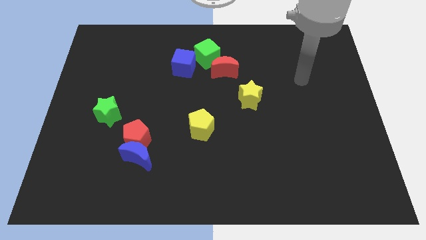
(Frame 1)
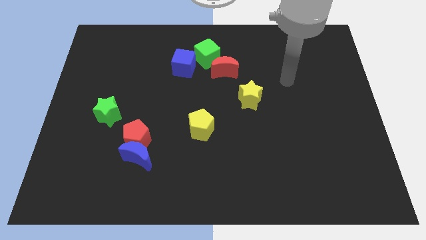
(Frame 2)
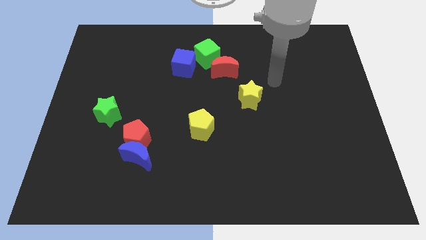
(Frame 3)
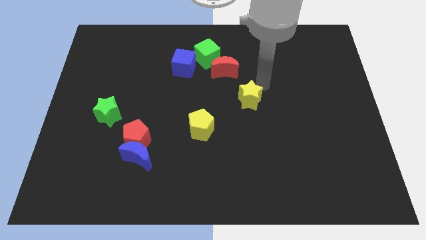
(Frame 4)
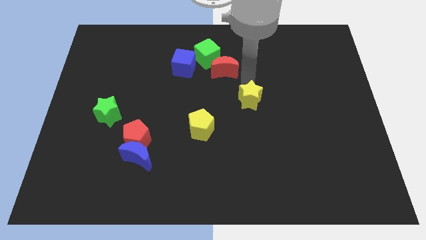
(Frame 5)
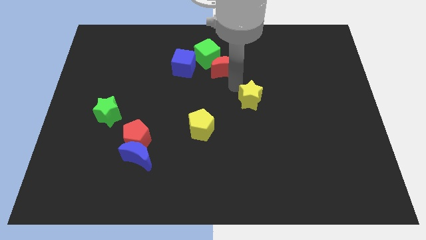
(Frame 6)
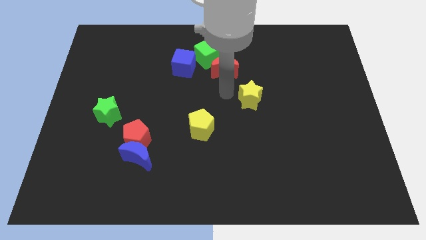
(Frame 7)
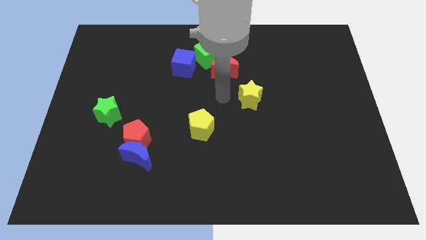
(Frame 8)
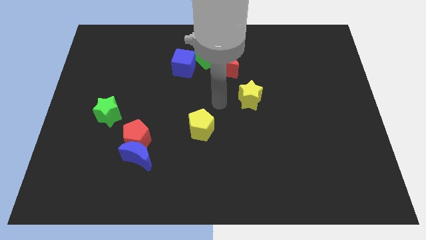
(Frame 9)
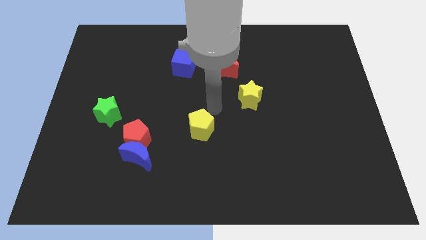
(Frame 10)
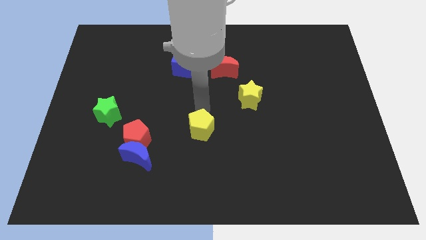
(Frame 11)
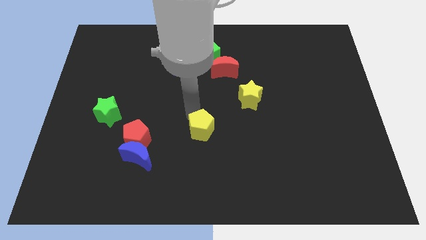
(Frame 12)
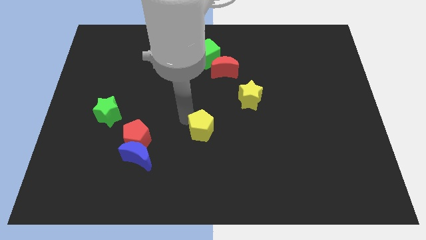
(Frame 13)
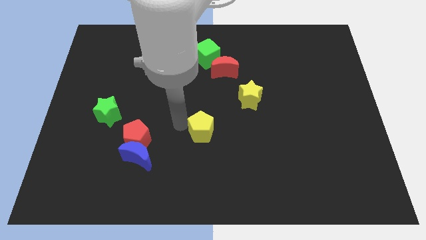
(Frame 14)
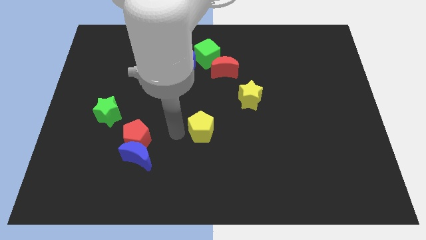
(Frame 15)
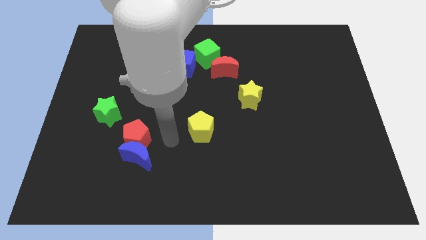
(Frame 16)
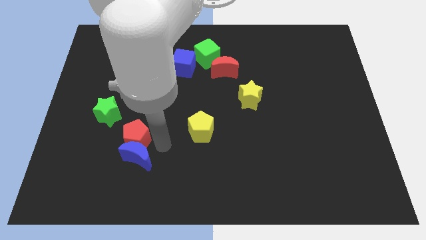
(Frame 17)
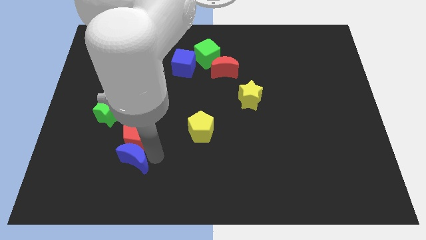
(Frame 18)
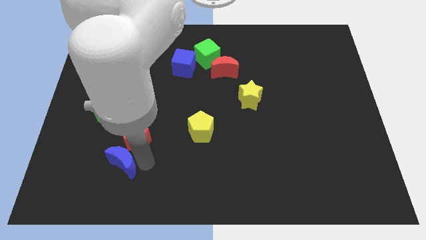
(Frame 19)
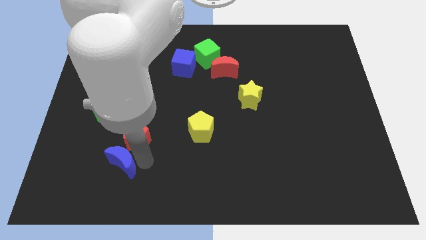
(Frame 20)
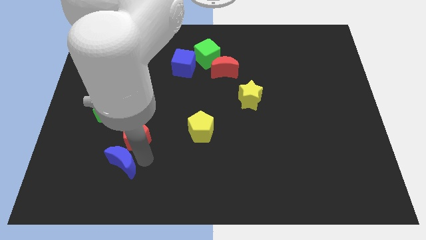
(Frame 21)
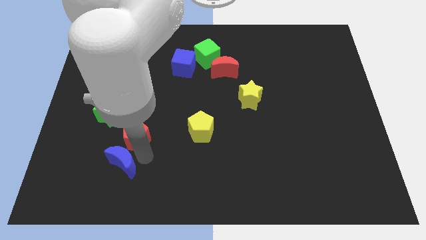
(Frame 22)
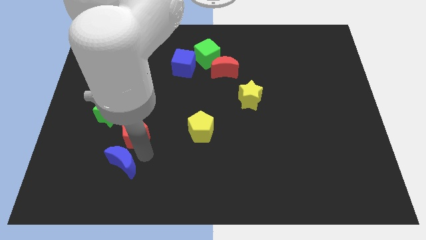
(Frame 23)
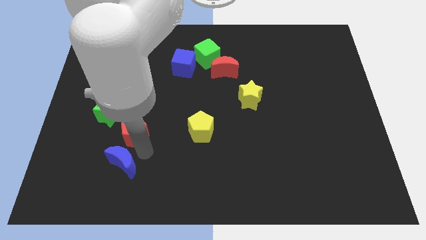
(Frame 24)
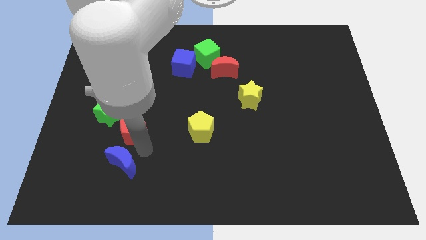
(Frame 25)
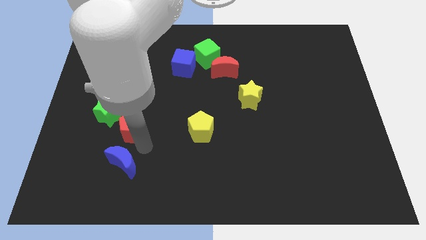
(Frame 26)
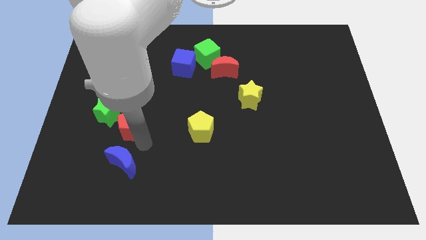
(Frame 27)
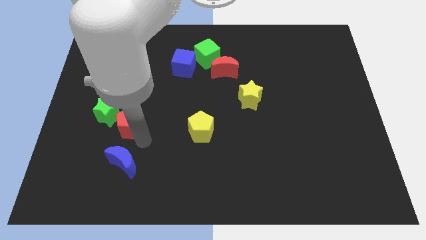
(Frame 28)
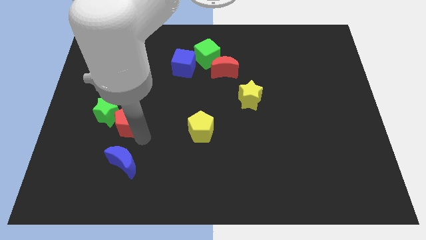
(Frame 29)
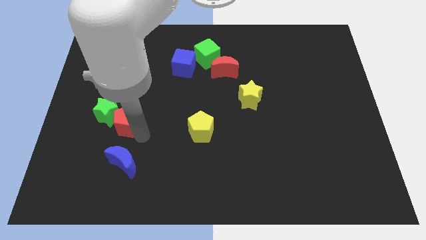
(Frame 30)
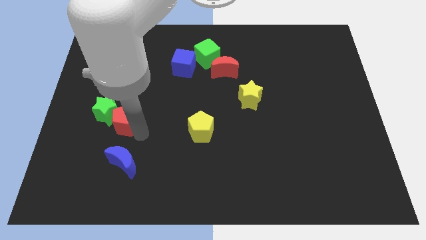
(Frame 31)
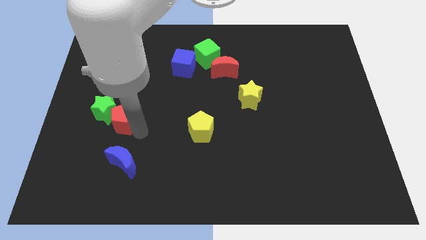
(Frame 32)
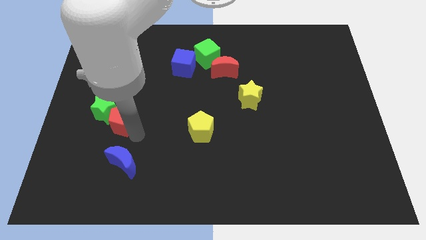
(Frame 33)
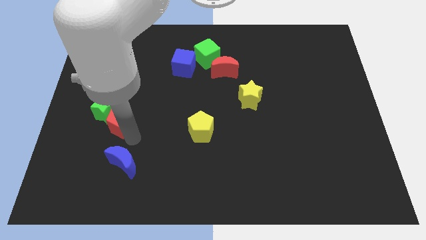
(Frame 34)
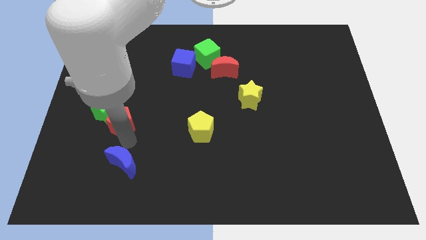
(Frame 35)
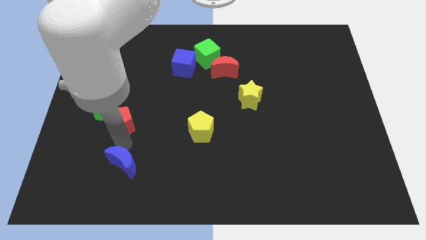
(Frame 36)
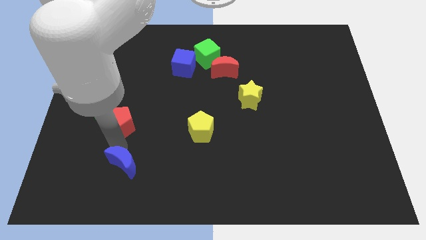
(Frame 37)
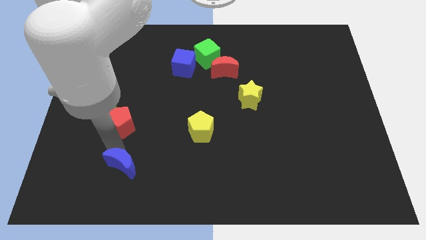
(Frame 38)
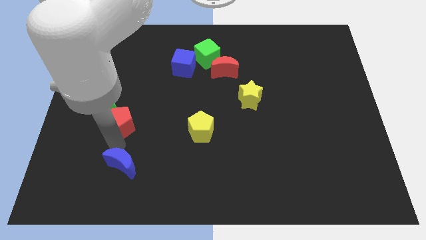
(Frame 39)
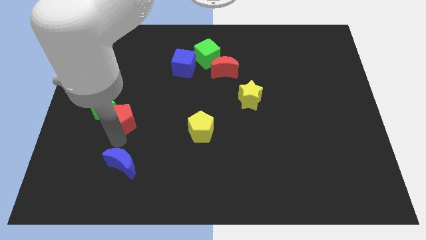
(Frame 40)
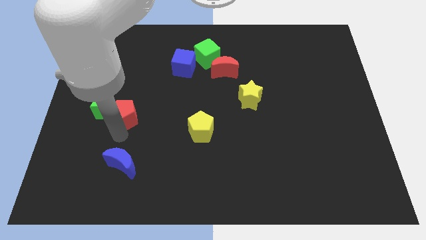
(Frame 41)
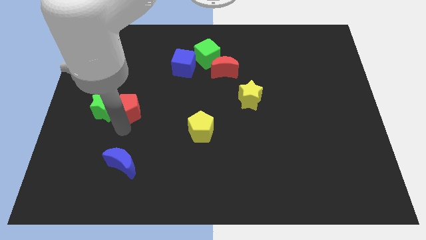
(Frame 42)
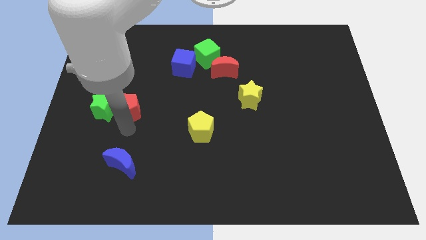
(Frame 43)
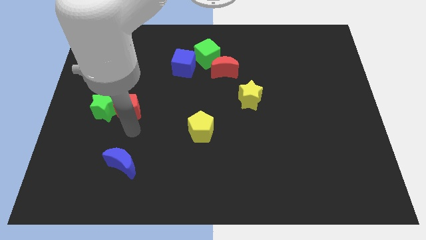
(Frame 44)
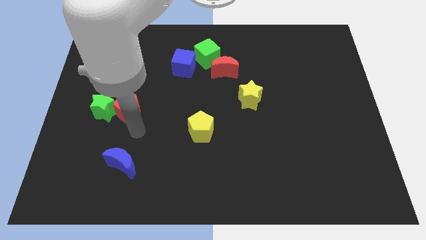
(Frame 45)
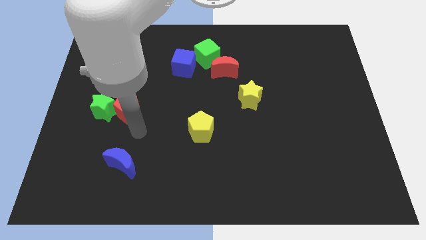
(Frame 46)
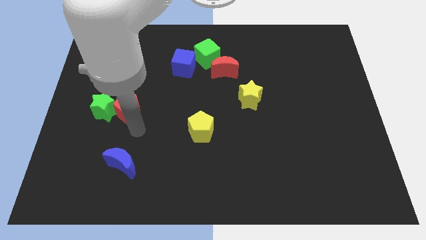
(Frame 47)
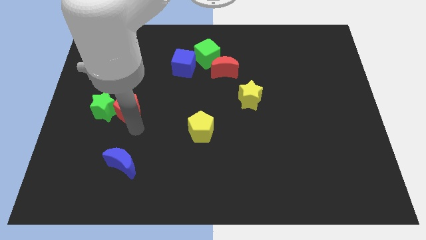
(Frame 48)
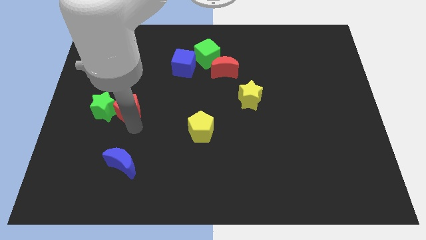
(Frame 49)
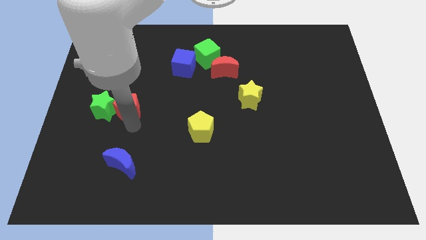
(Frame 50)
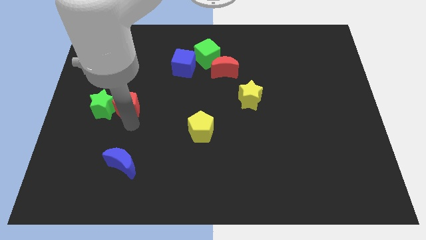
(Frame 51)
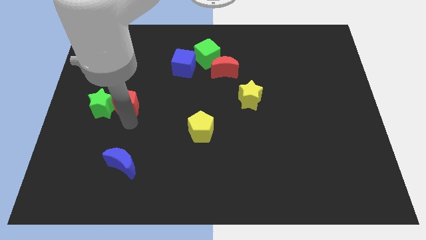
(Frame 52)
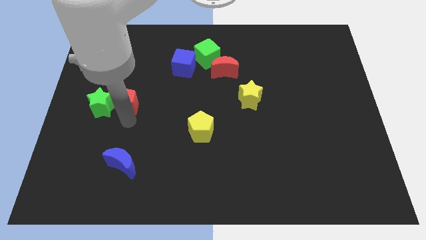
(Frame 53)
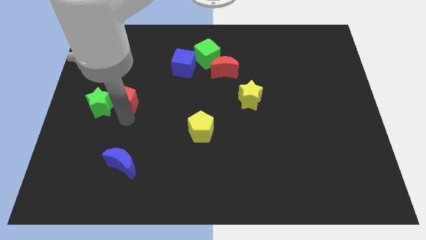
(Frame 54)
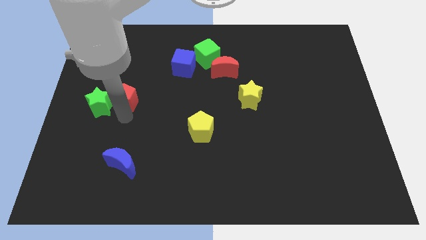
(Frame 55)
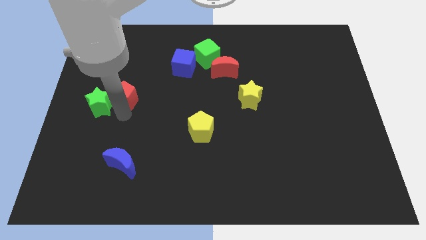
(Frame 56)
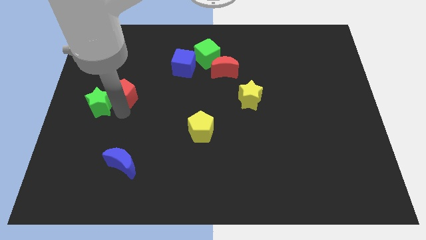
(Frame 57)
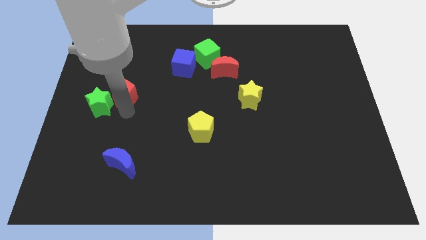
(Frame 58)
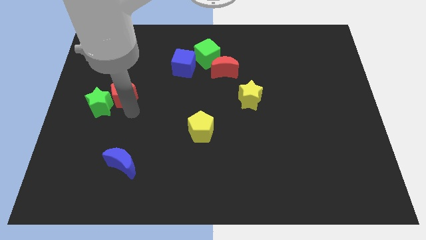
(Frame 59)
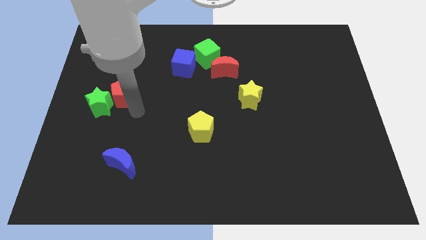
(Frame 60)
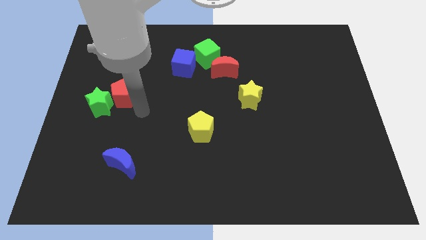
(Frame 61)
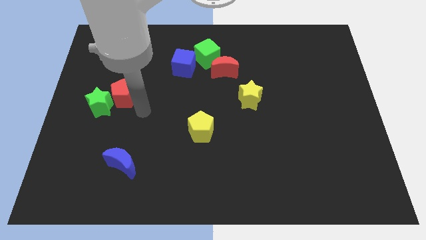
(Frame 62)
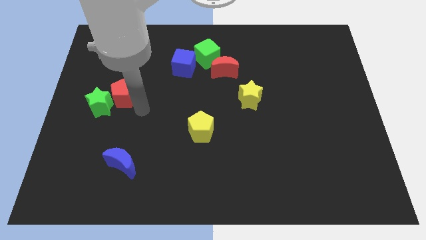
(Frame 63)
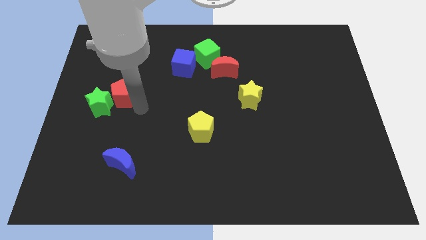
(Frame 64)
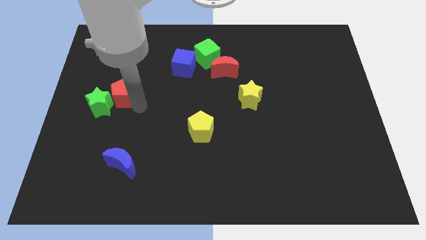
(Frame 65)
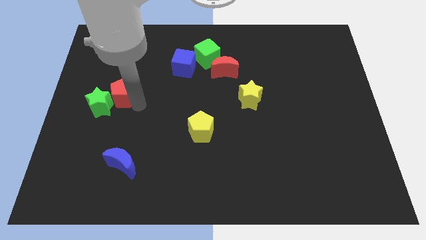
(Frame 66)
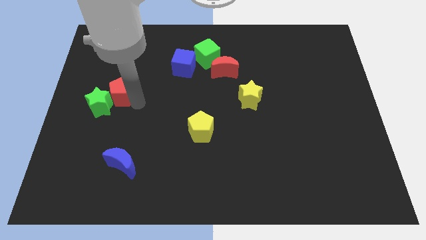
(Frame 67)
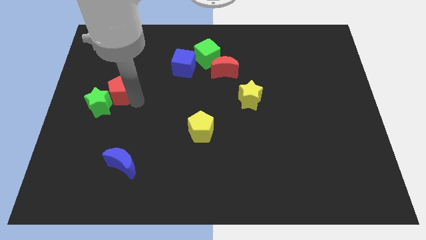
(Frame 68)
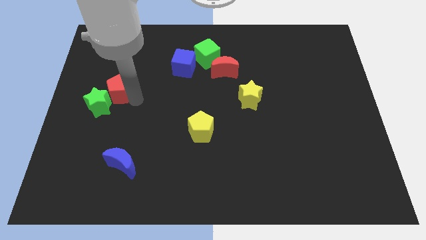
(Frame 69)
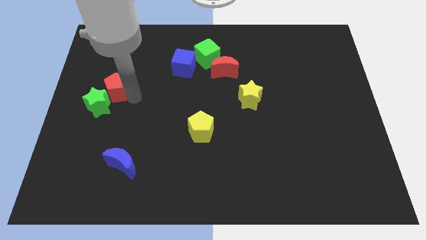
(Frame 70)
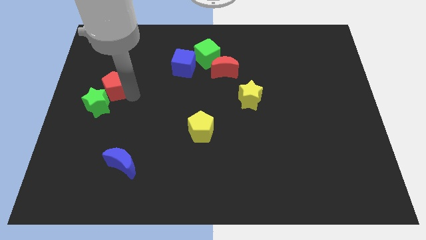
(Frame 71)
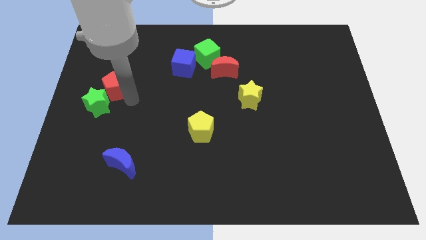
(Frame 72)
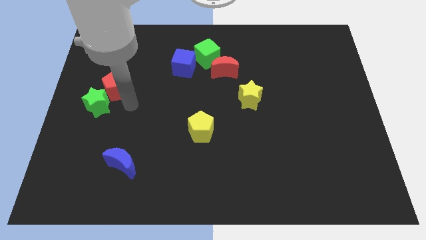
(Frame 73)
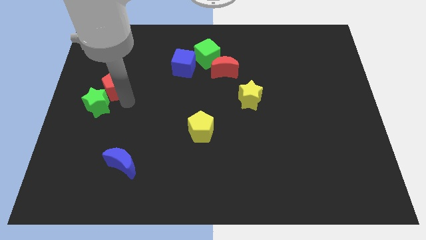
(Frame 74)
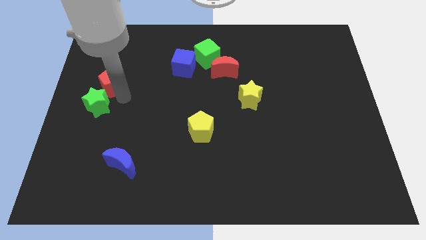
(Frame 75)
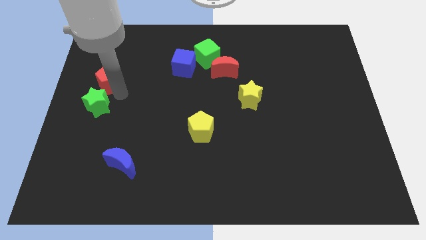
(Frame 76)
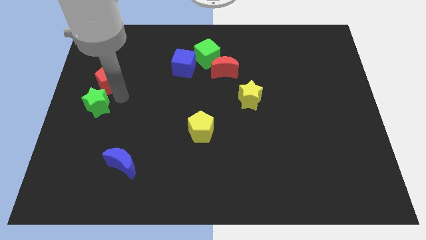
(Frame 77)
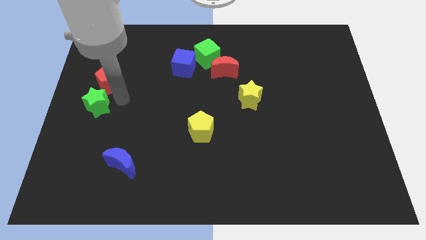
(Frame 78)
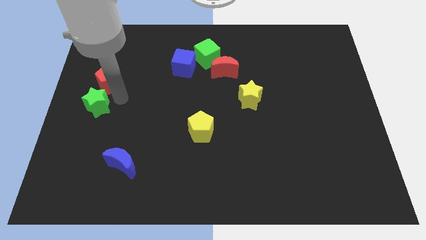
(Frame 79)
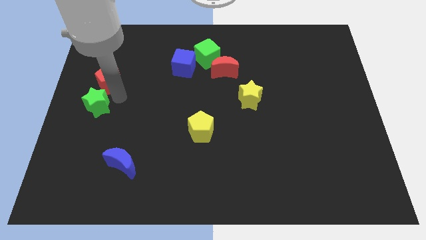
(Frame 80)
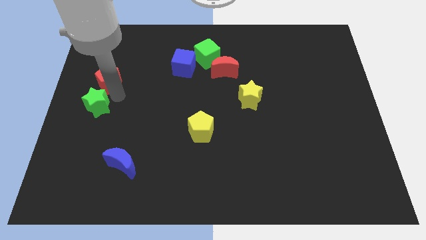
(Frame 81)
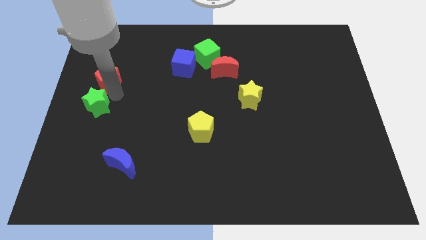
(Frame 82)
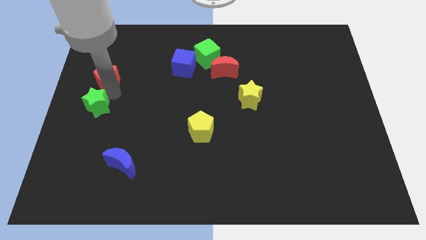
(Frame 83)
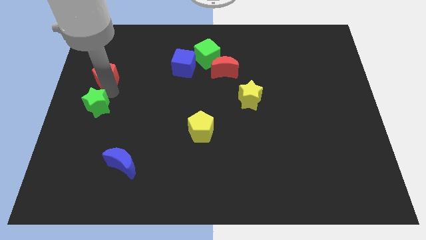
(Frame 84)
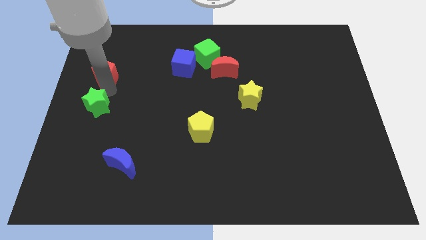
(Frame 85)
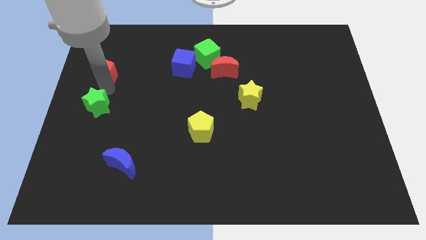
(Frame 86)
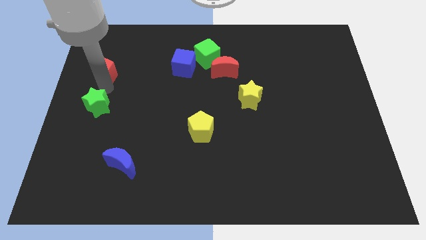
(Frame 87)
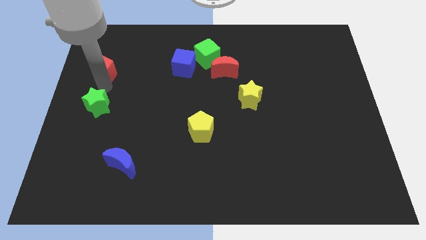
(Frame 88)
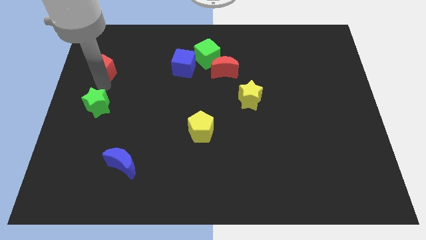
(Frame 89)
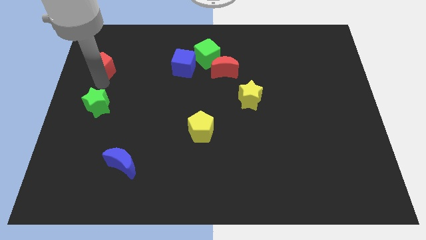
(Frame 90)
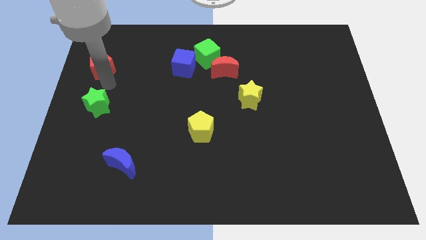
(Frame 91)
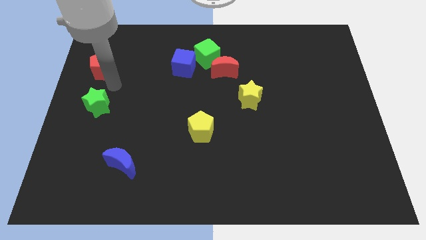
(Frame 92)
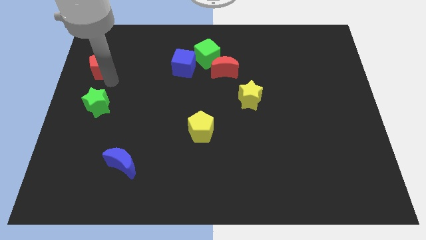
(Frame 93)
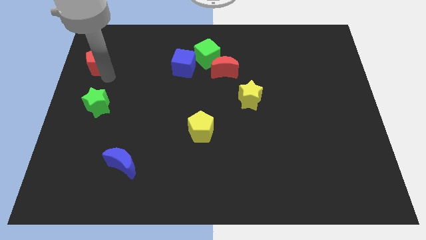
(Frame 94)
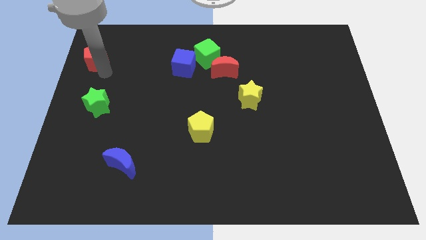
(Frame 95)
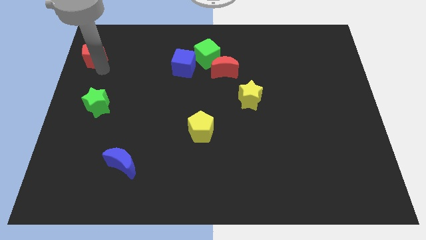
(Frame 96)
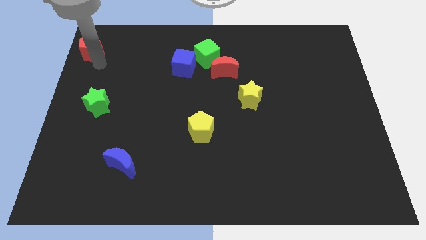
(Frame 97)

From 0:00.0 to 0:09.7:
put the red pentagon to the top left corner
